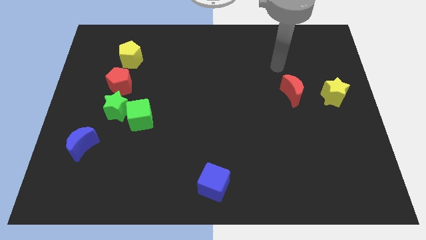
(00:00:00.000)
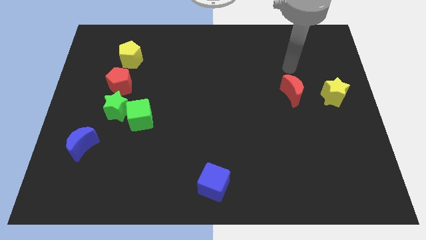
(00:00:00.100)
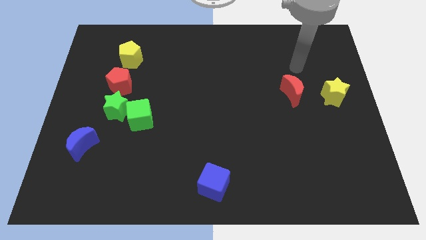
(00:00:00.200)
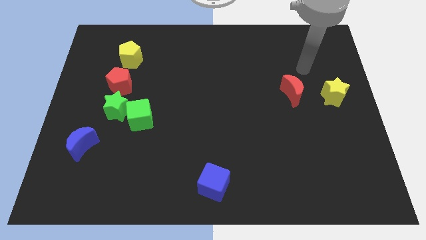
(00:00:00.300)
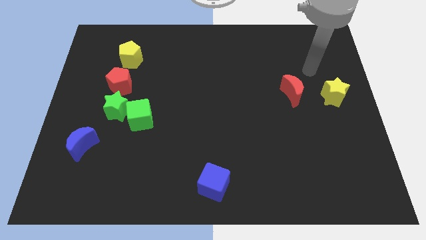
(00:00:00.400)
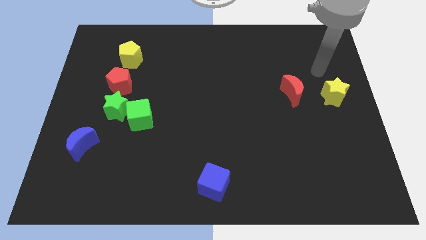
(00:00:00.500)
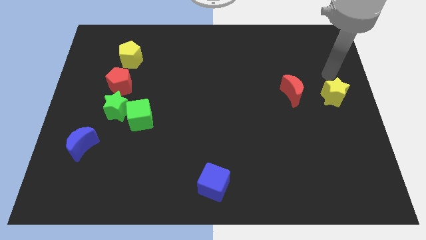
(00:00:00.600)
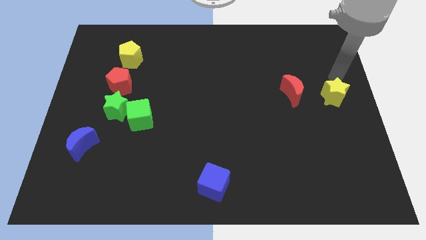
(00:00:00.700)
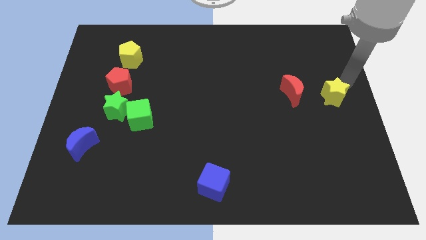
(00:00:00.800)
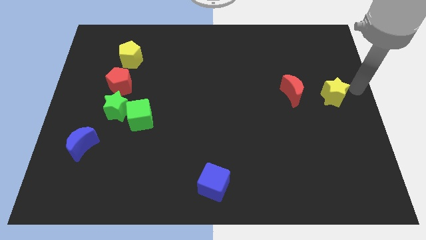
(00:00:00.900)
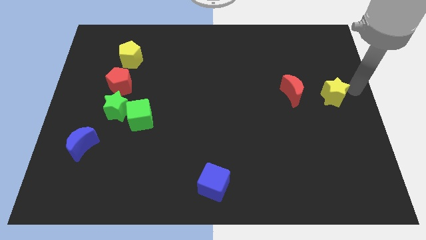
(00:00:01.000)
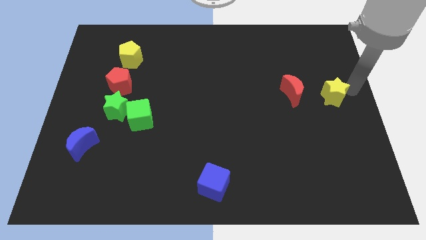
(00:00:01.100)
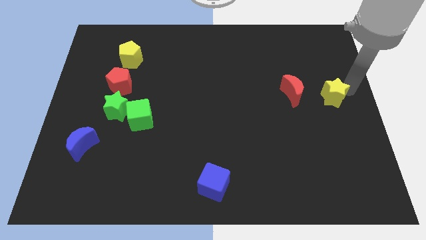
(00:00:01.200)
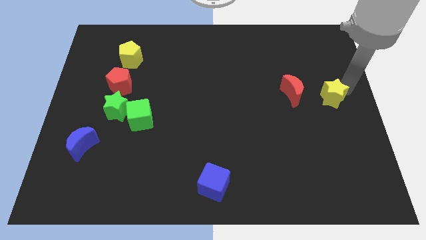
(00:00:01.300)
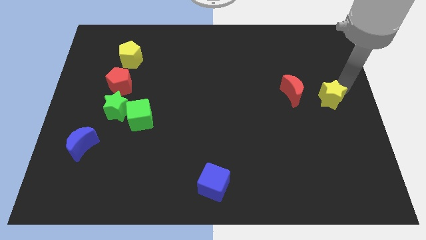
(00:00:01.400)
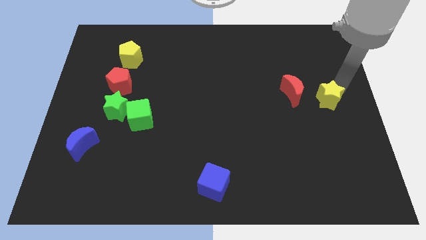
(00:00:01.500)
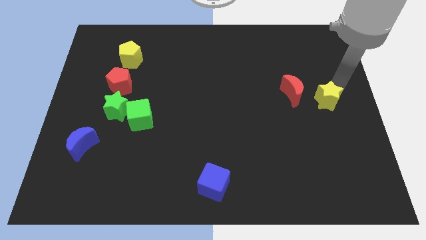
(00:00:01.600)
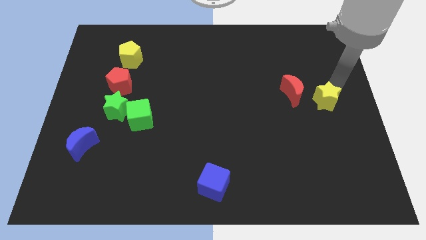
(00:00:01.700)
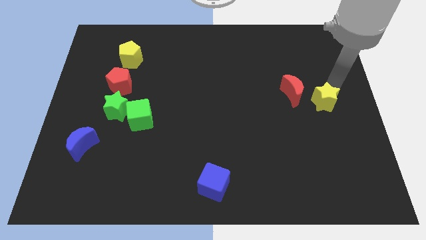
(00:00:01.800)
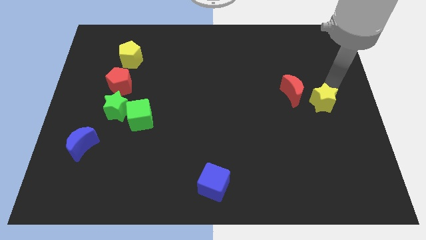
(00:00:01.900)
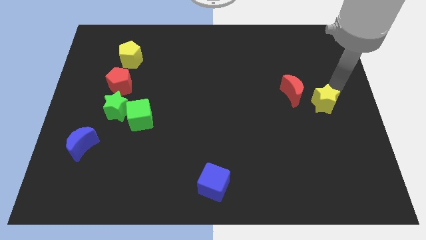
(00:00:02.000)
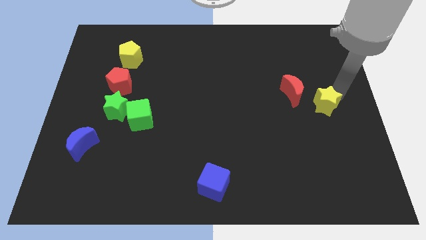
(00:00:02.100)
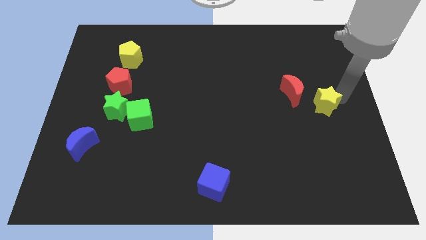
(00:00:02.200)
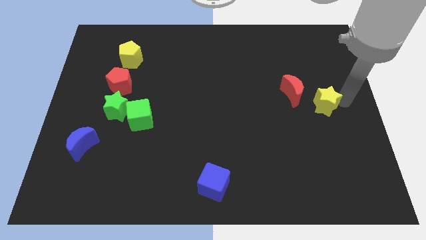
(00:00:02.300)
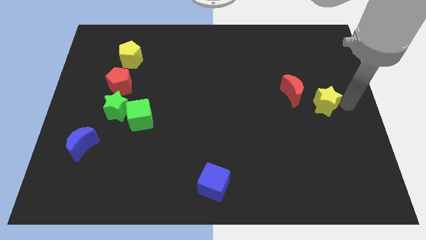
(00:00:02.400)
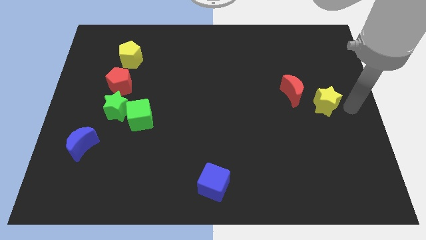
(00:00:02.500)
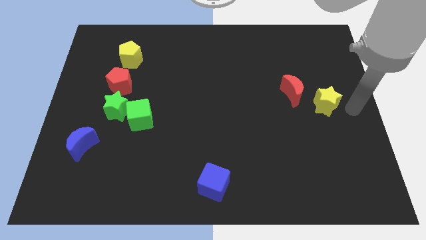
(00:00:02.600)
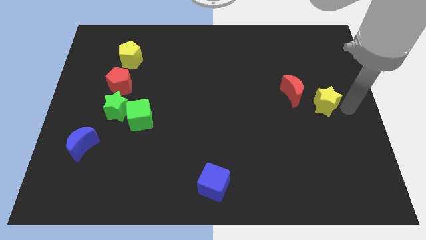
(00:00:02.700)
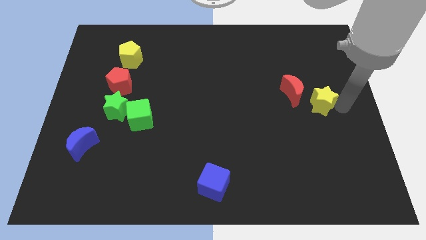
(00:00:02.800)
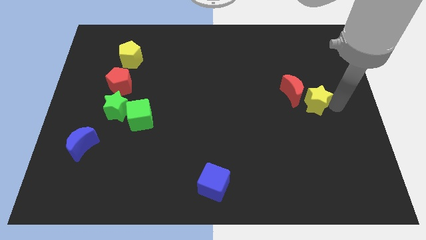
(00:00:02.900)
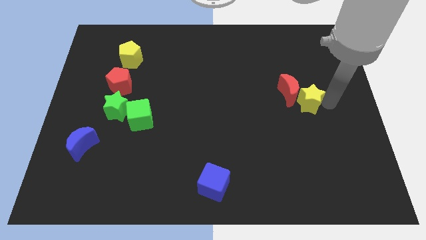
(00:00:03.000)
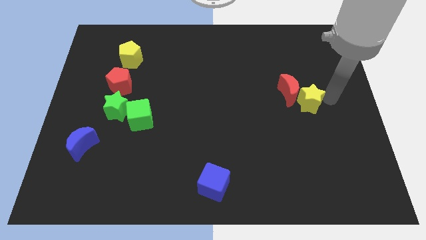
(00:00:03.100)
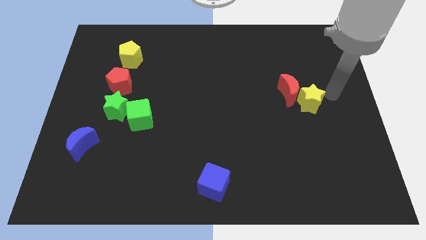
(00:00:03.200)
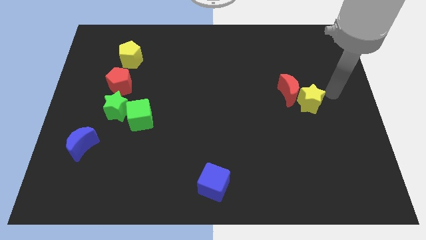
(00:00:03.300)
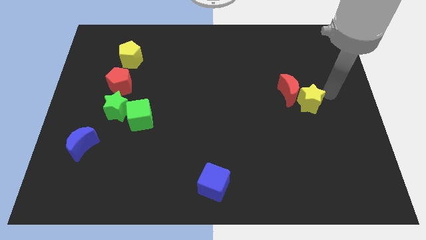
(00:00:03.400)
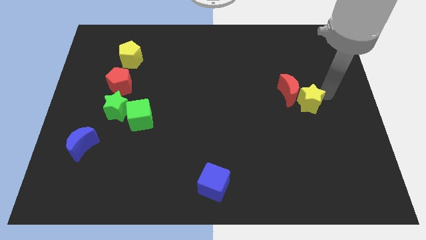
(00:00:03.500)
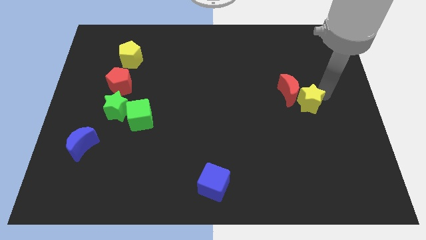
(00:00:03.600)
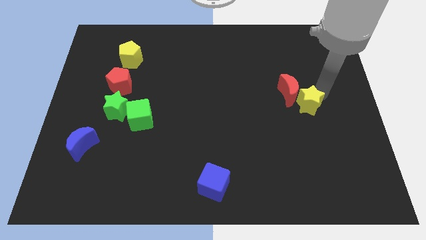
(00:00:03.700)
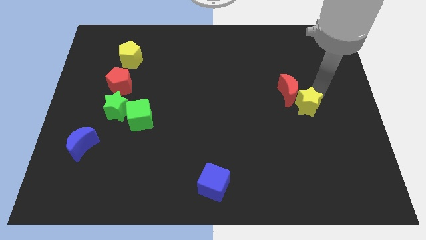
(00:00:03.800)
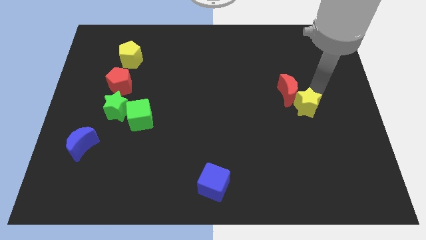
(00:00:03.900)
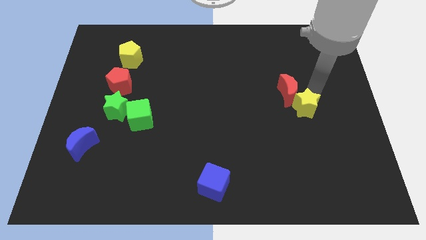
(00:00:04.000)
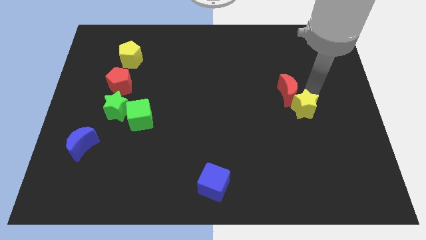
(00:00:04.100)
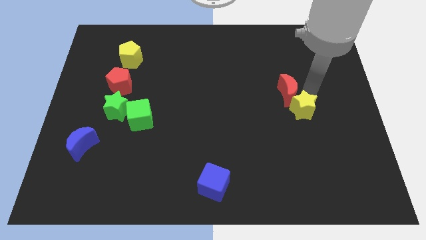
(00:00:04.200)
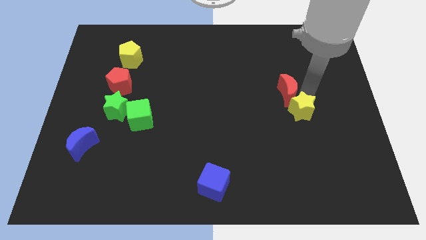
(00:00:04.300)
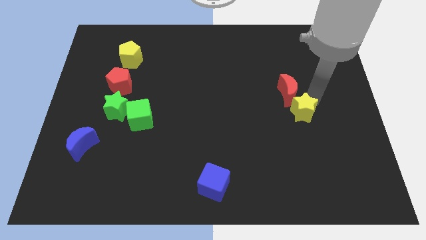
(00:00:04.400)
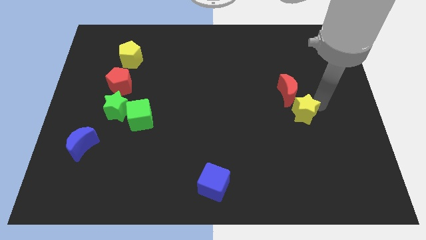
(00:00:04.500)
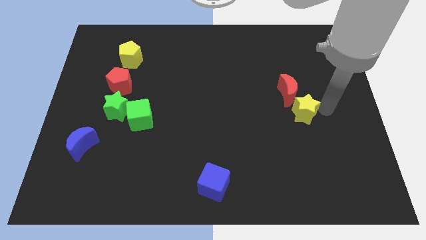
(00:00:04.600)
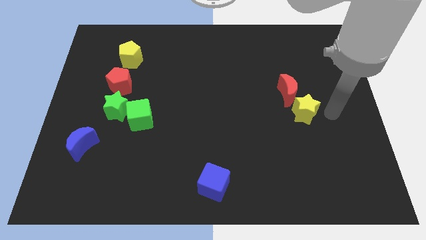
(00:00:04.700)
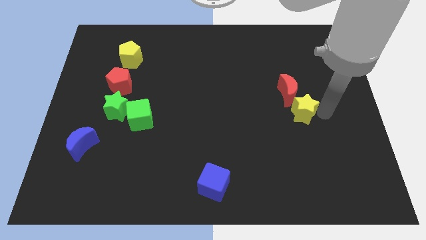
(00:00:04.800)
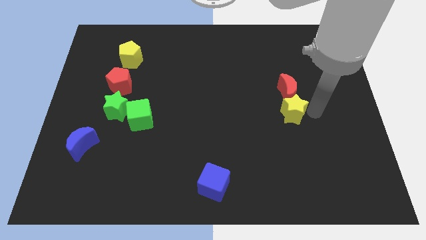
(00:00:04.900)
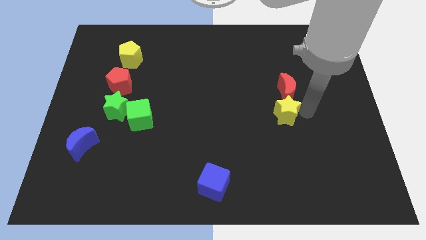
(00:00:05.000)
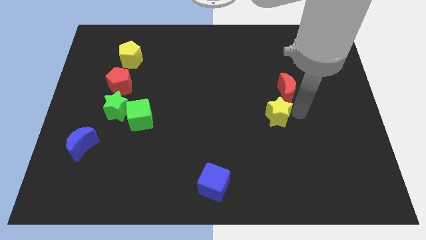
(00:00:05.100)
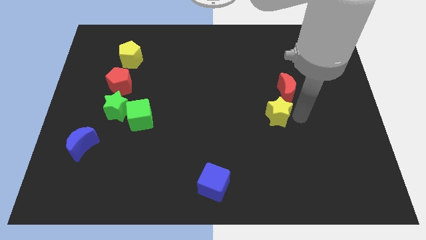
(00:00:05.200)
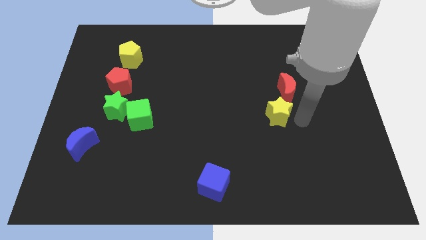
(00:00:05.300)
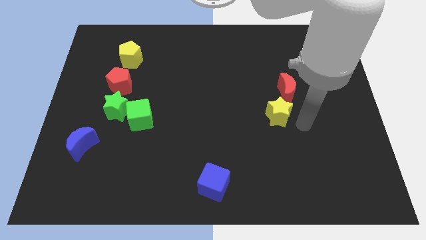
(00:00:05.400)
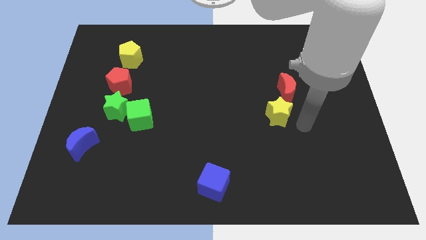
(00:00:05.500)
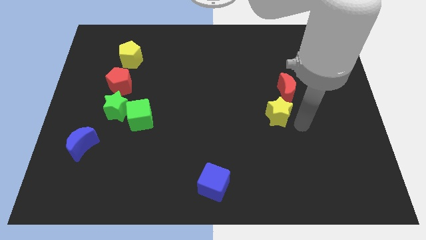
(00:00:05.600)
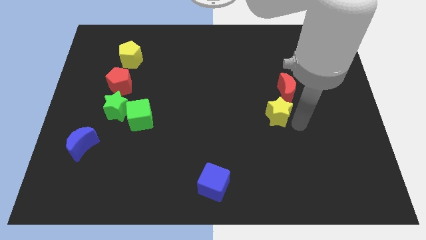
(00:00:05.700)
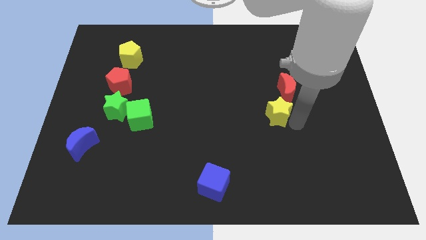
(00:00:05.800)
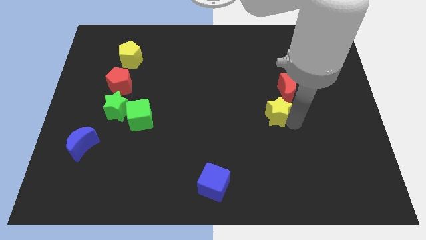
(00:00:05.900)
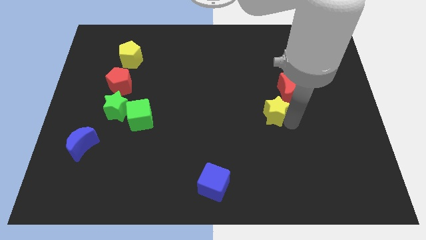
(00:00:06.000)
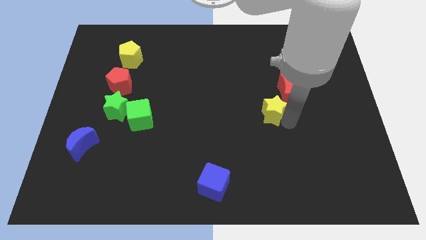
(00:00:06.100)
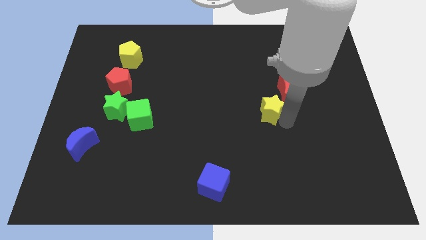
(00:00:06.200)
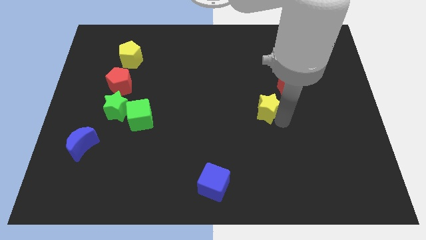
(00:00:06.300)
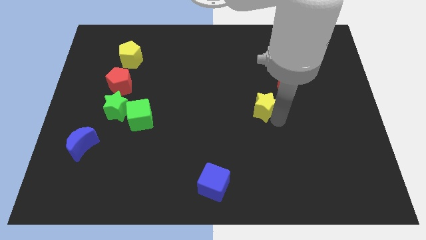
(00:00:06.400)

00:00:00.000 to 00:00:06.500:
move the yellow star to the middle

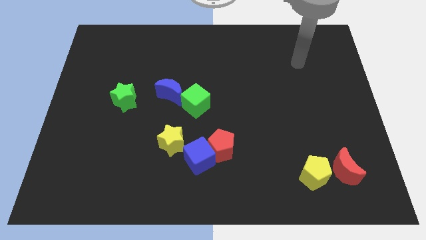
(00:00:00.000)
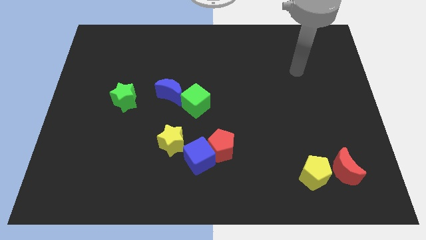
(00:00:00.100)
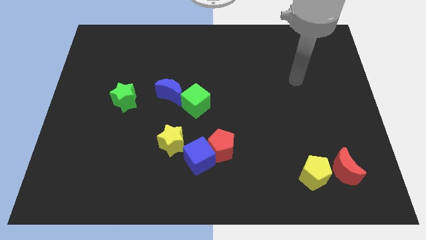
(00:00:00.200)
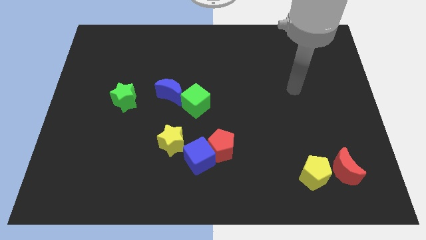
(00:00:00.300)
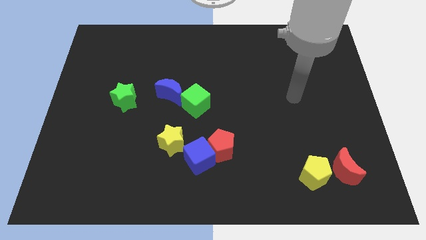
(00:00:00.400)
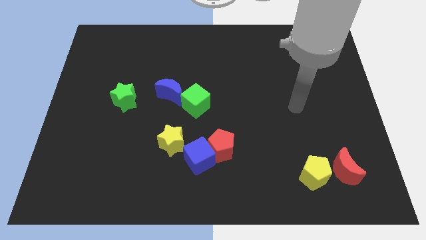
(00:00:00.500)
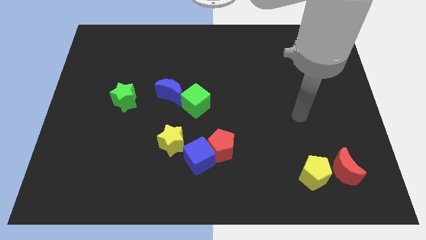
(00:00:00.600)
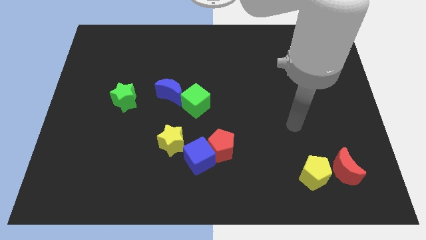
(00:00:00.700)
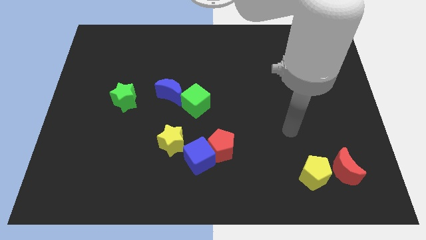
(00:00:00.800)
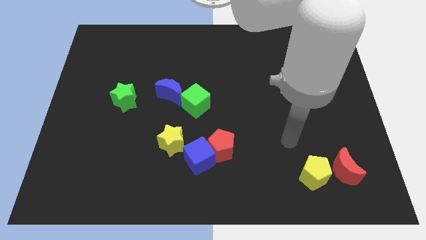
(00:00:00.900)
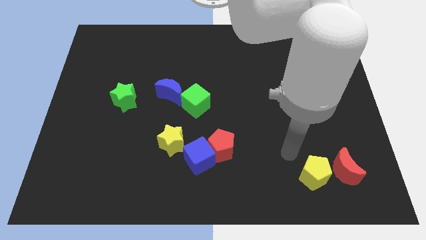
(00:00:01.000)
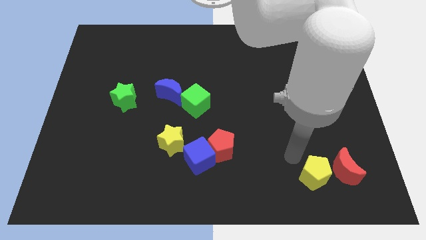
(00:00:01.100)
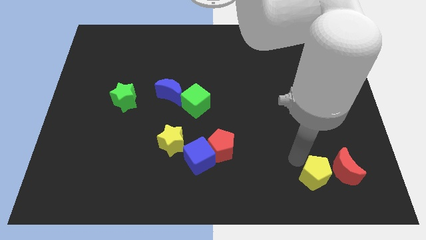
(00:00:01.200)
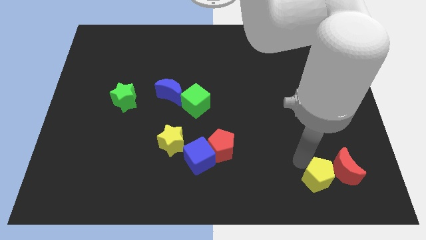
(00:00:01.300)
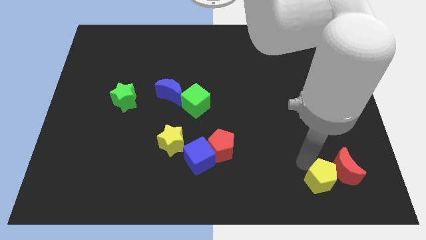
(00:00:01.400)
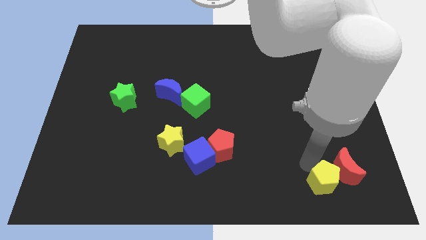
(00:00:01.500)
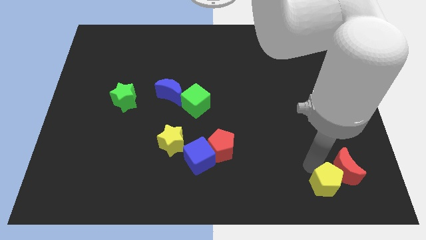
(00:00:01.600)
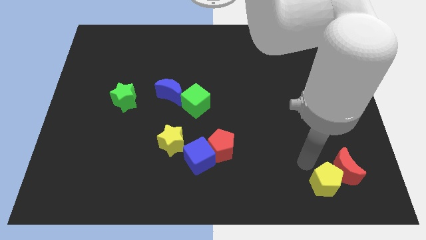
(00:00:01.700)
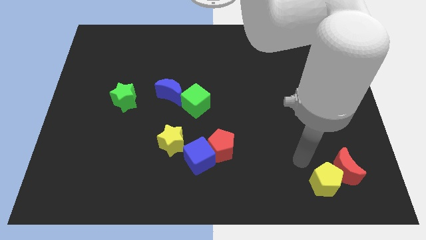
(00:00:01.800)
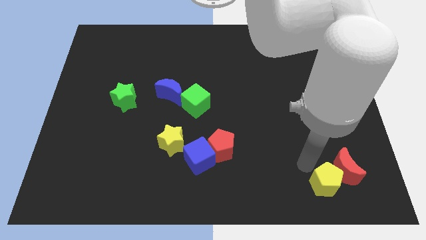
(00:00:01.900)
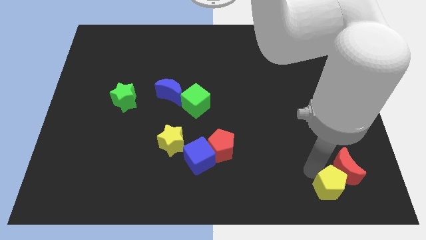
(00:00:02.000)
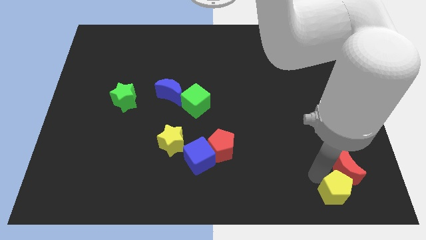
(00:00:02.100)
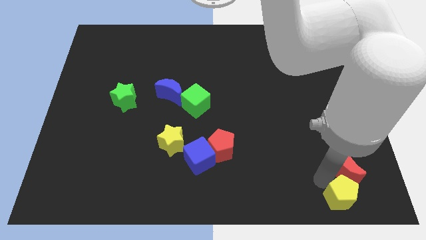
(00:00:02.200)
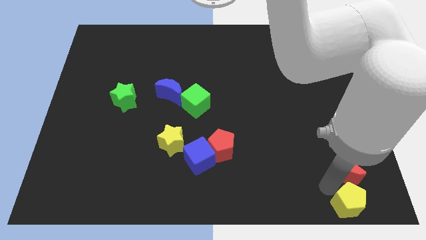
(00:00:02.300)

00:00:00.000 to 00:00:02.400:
put the yellow pentagon to the bottom right of the board
